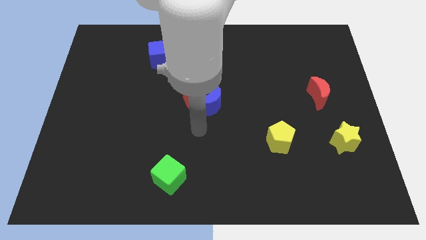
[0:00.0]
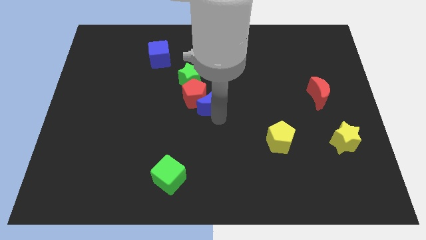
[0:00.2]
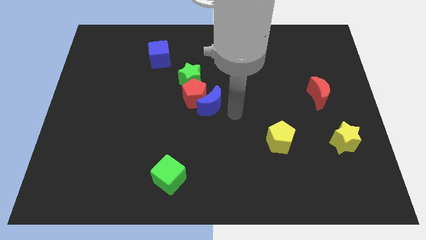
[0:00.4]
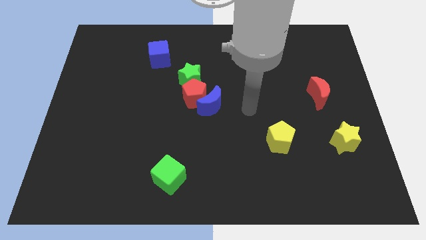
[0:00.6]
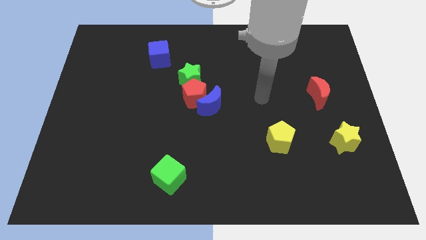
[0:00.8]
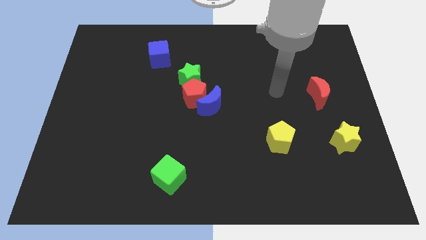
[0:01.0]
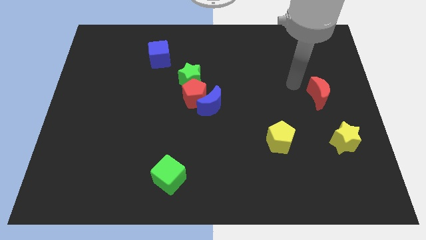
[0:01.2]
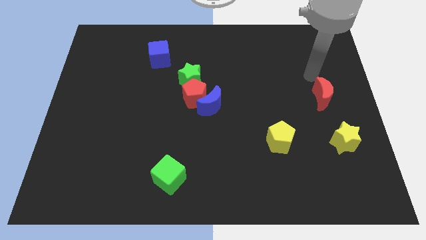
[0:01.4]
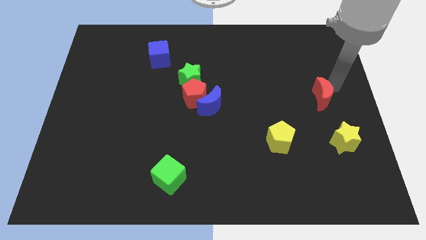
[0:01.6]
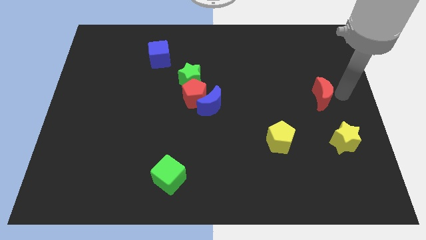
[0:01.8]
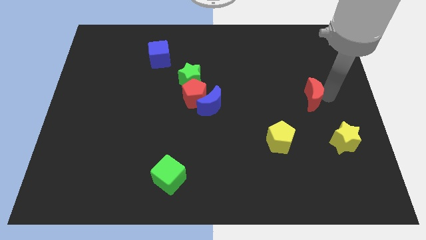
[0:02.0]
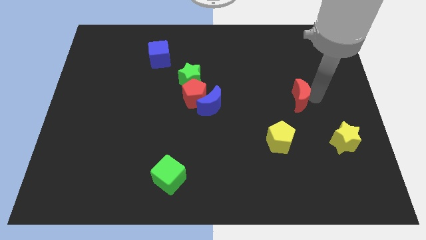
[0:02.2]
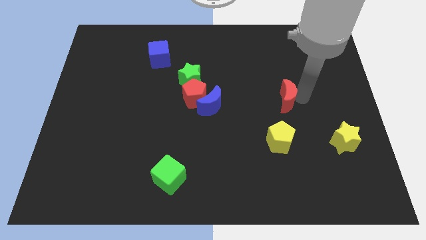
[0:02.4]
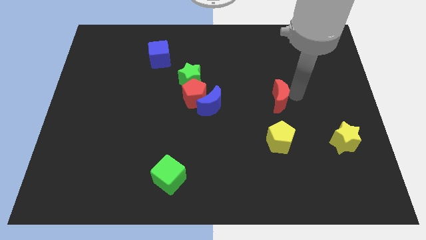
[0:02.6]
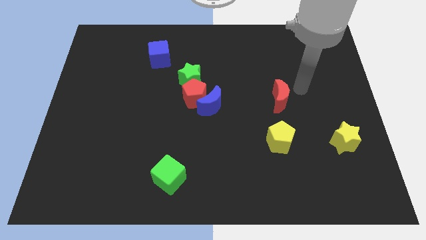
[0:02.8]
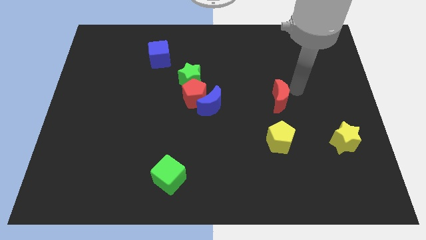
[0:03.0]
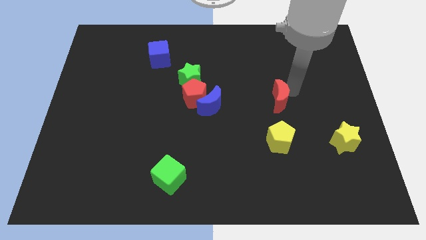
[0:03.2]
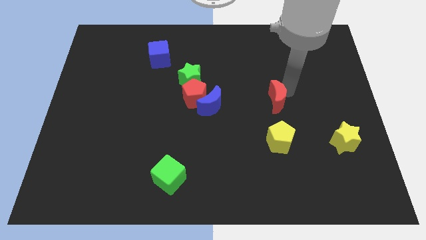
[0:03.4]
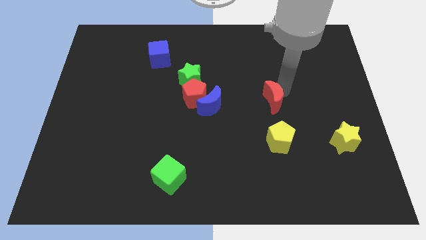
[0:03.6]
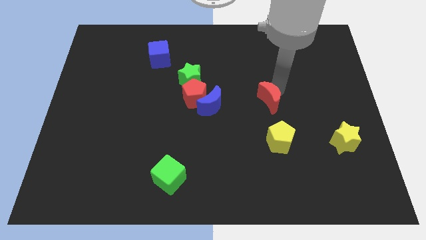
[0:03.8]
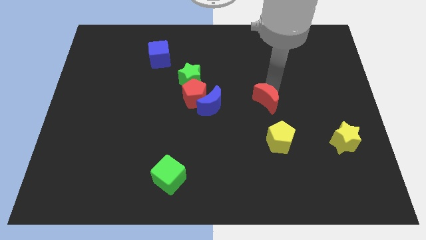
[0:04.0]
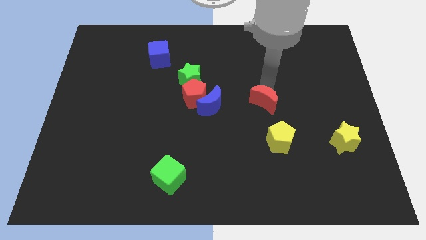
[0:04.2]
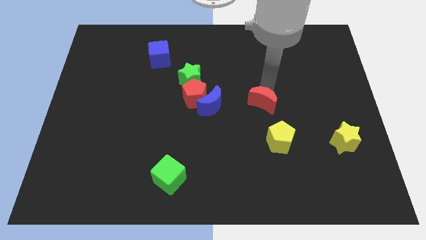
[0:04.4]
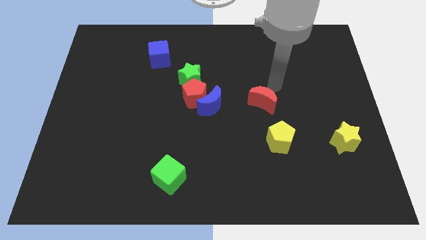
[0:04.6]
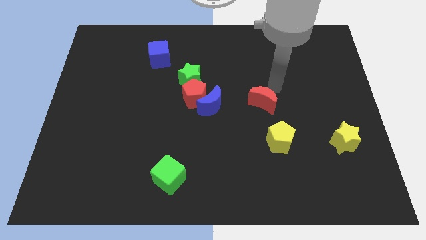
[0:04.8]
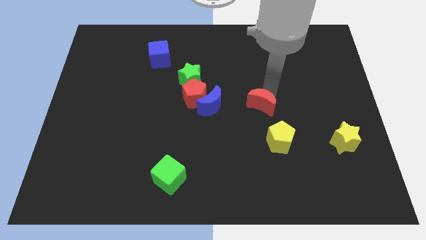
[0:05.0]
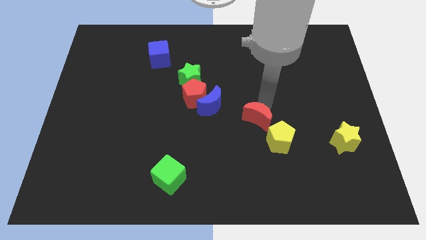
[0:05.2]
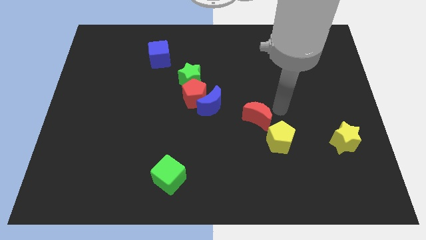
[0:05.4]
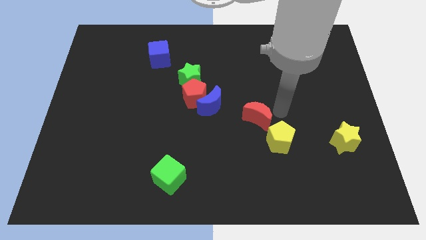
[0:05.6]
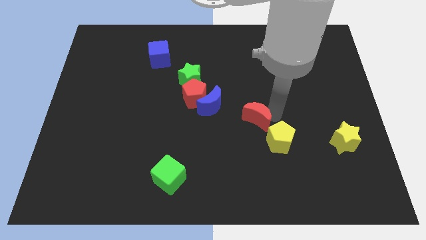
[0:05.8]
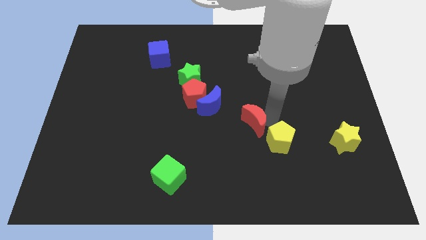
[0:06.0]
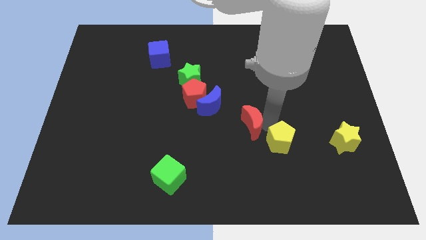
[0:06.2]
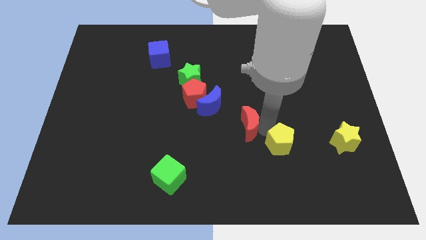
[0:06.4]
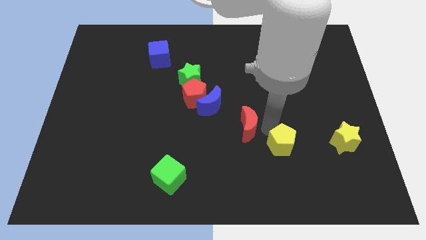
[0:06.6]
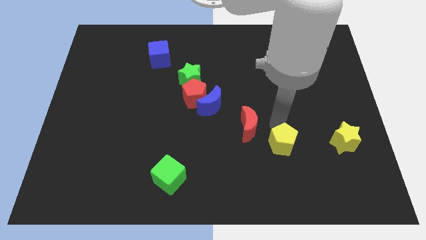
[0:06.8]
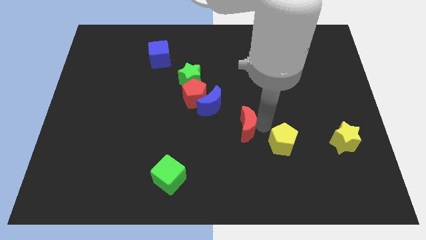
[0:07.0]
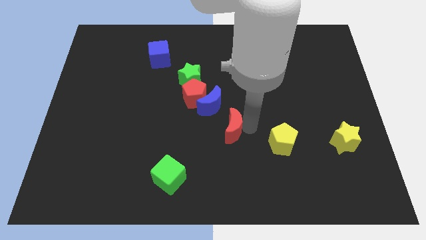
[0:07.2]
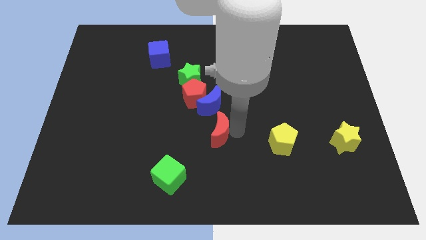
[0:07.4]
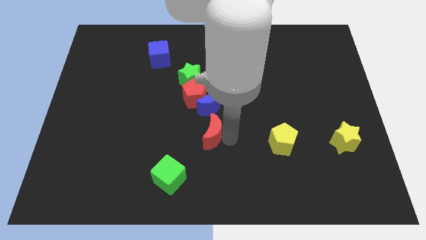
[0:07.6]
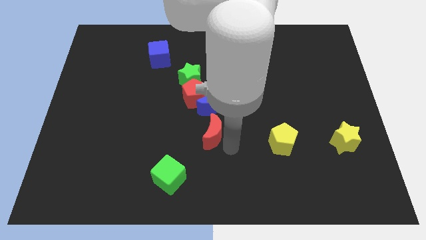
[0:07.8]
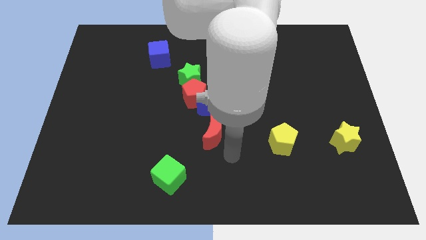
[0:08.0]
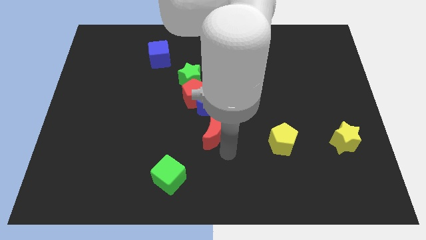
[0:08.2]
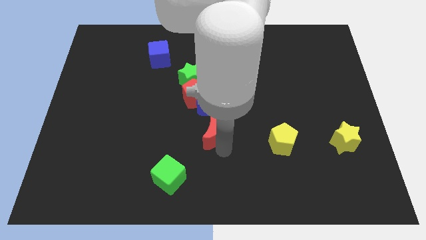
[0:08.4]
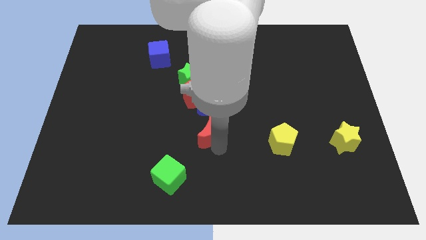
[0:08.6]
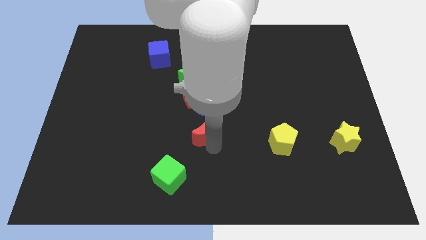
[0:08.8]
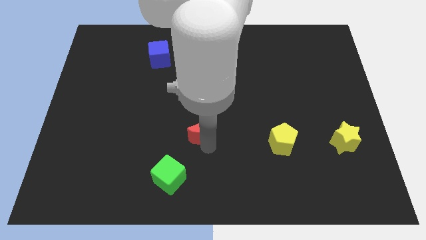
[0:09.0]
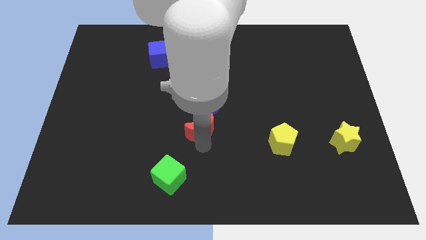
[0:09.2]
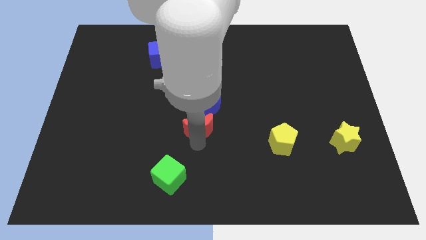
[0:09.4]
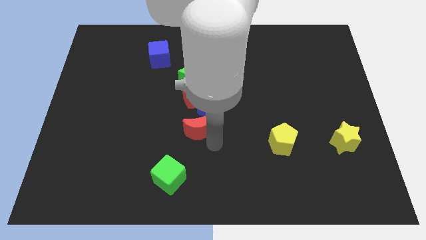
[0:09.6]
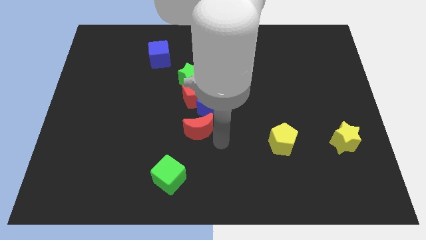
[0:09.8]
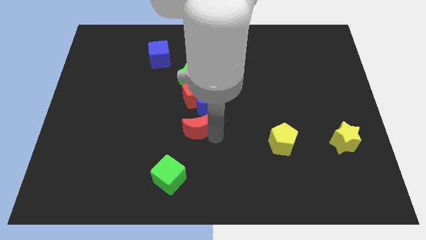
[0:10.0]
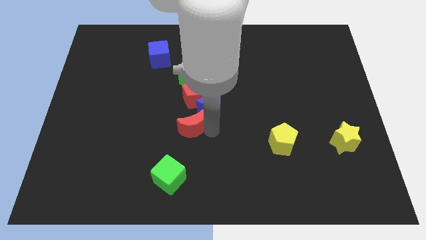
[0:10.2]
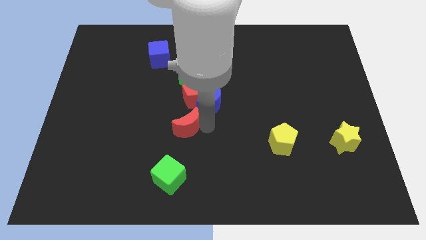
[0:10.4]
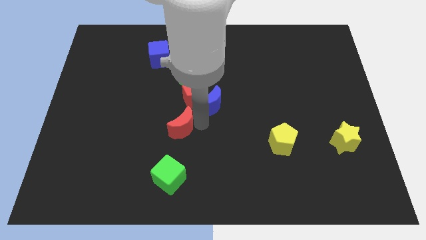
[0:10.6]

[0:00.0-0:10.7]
slide the red moon to the bottom left side of the red pentagon

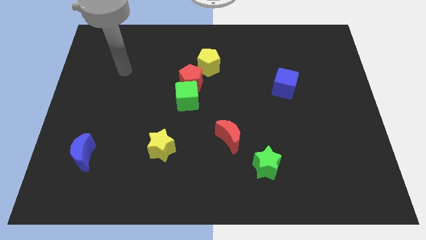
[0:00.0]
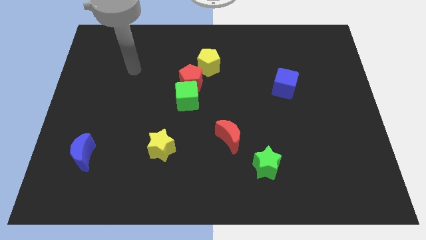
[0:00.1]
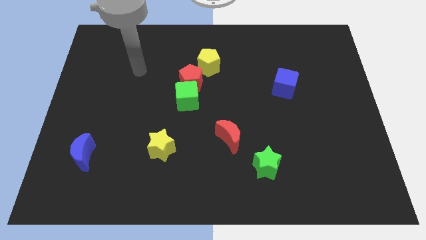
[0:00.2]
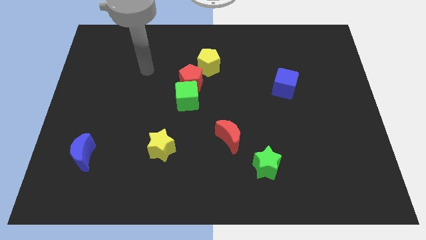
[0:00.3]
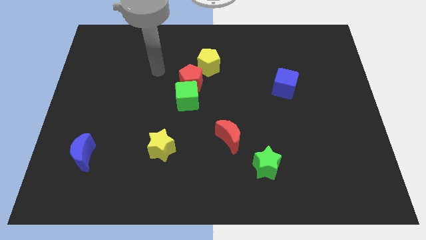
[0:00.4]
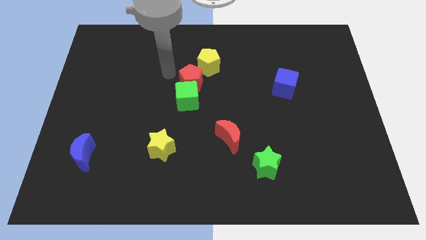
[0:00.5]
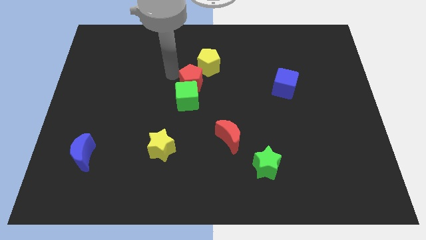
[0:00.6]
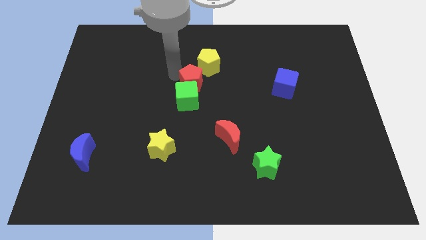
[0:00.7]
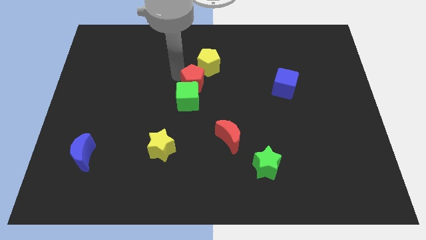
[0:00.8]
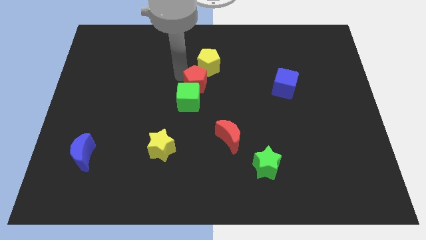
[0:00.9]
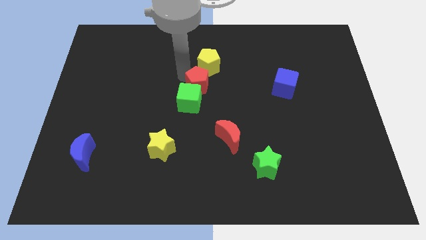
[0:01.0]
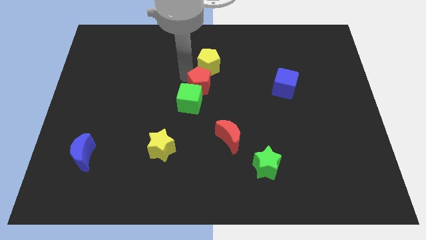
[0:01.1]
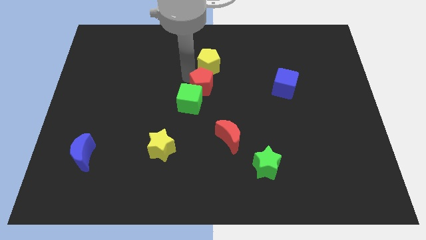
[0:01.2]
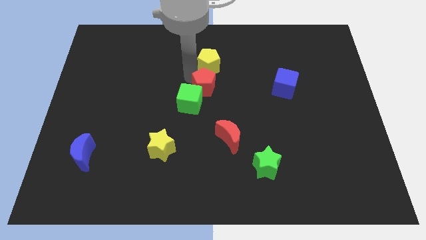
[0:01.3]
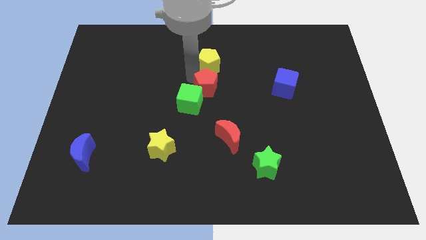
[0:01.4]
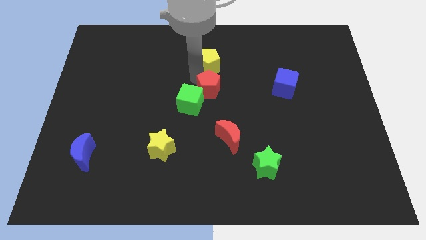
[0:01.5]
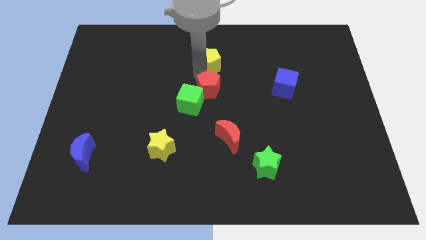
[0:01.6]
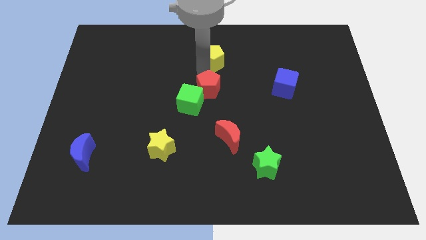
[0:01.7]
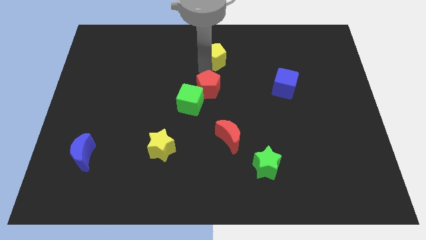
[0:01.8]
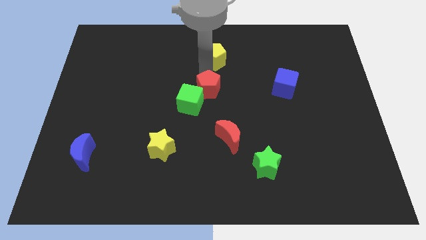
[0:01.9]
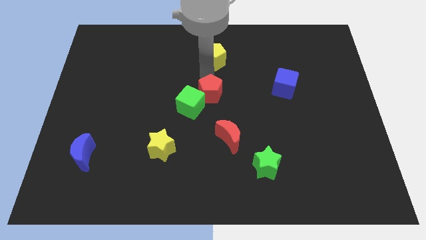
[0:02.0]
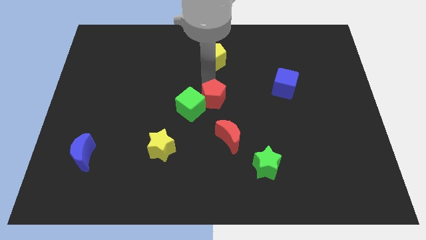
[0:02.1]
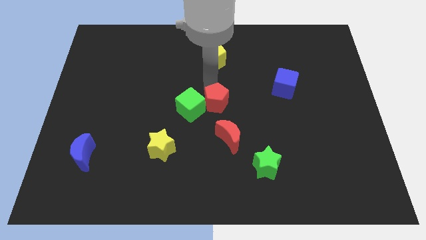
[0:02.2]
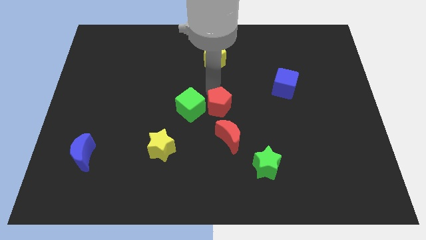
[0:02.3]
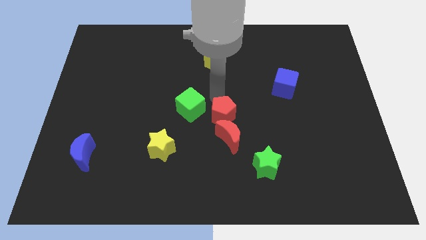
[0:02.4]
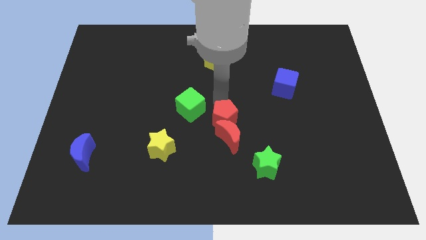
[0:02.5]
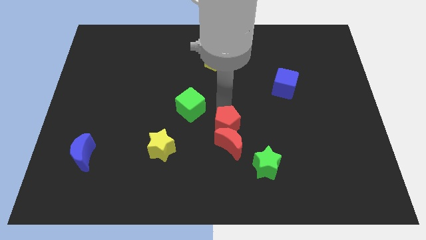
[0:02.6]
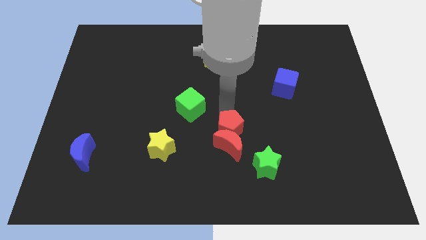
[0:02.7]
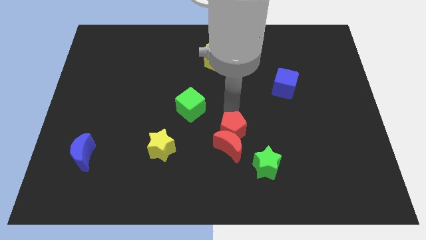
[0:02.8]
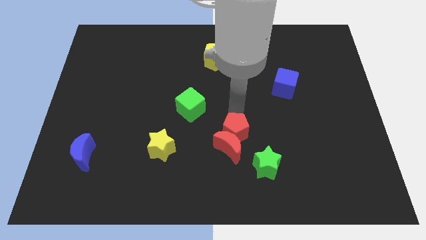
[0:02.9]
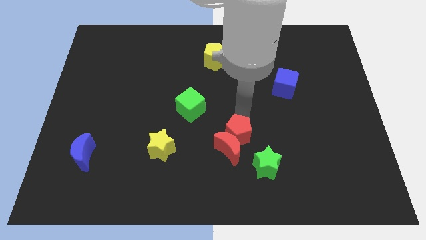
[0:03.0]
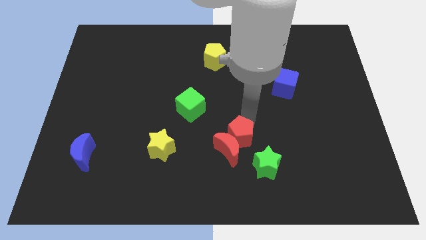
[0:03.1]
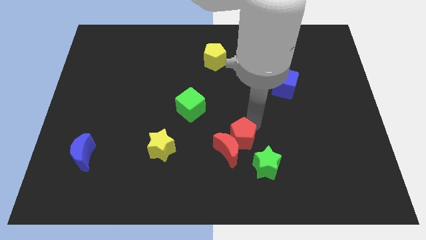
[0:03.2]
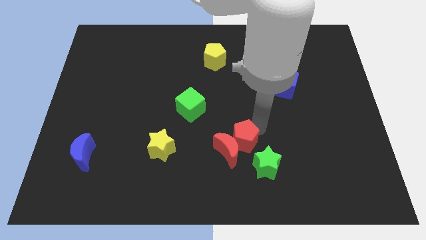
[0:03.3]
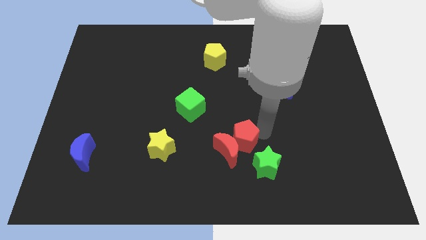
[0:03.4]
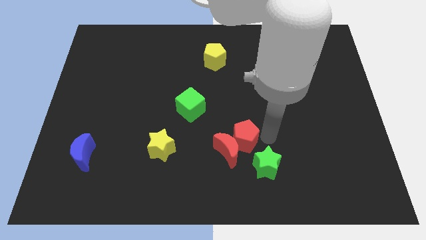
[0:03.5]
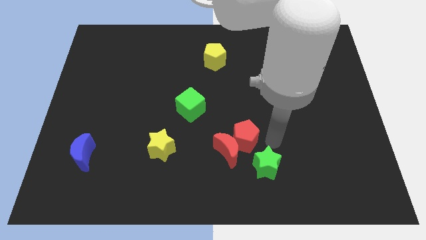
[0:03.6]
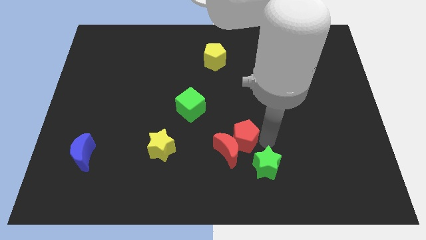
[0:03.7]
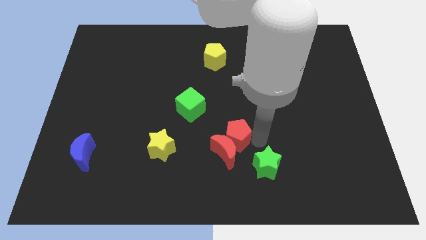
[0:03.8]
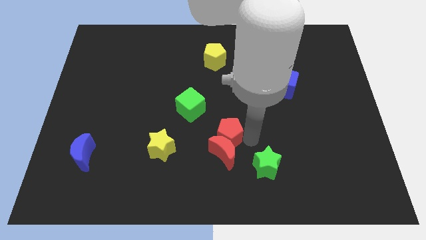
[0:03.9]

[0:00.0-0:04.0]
push the red pentagon to the right of the yellow star
